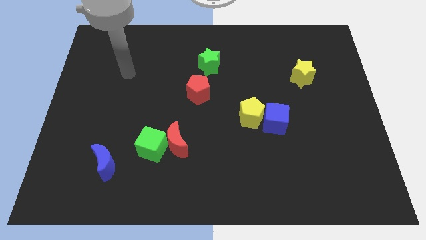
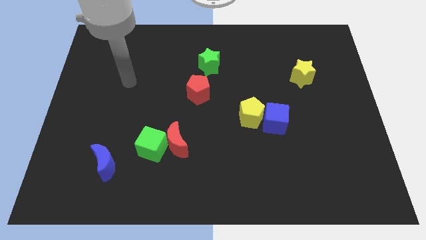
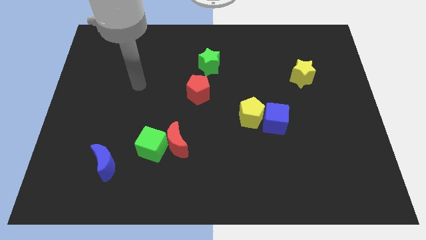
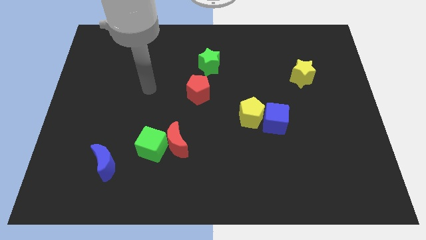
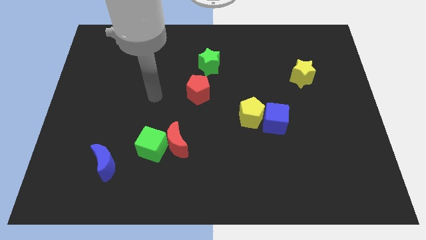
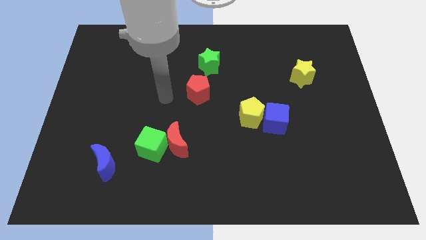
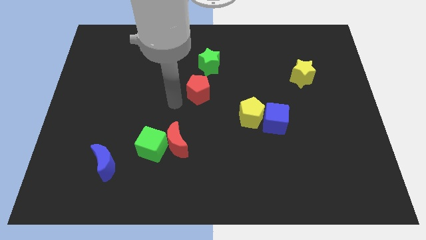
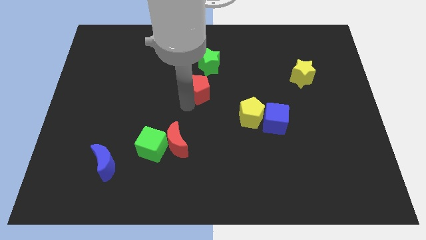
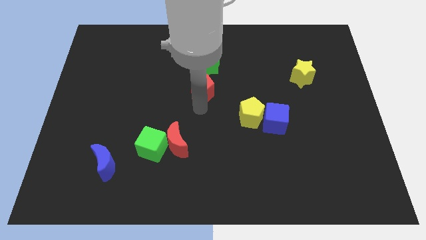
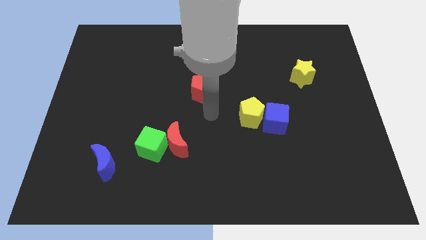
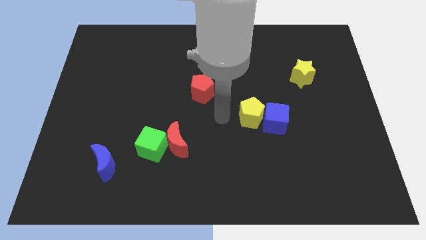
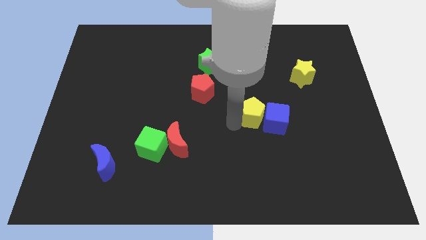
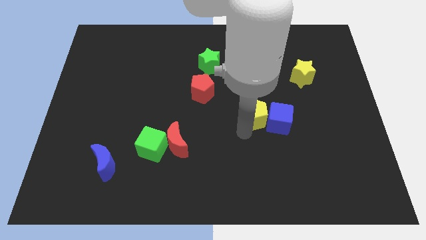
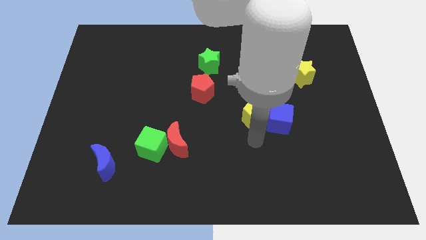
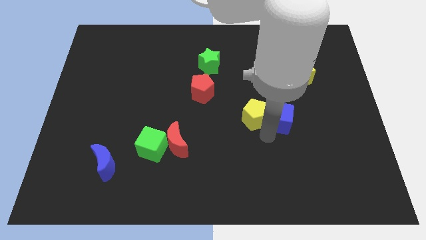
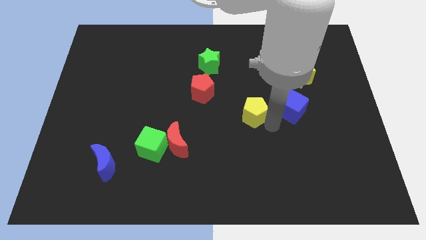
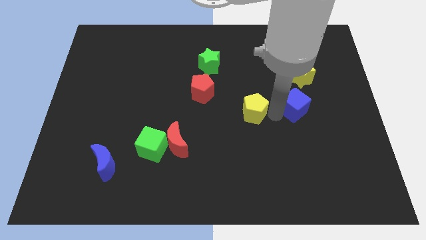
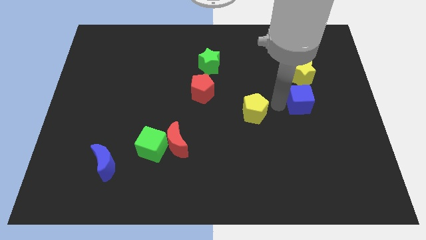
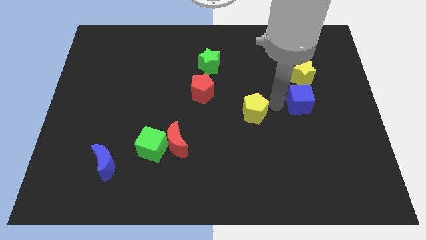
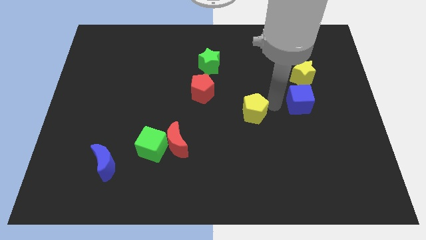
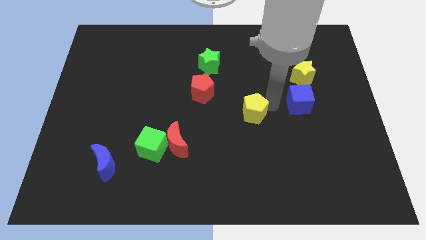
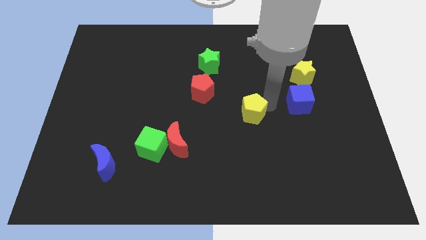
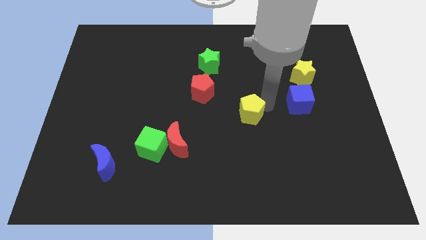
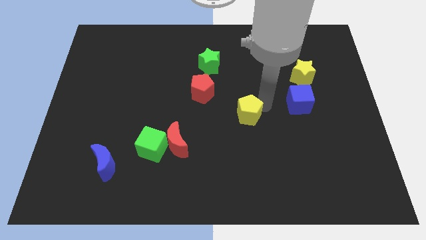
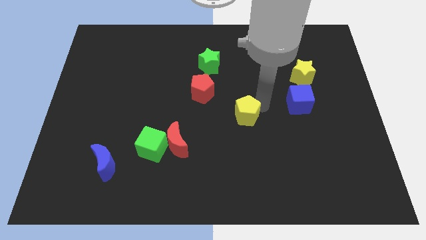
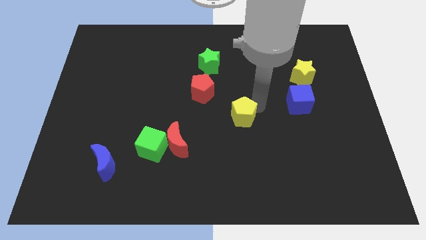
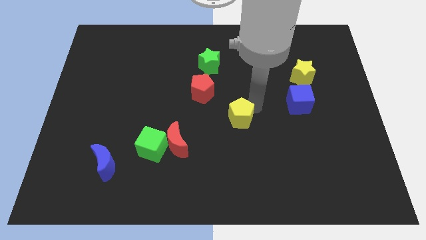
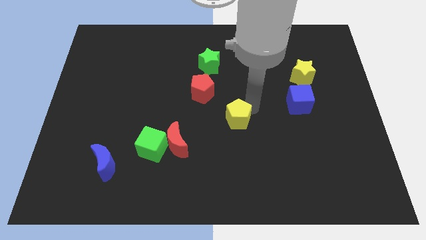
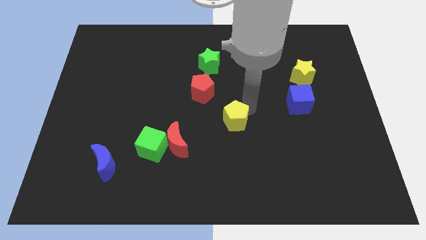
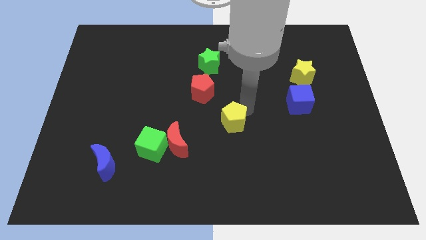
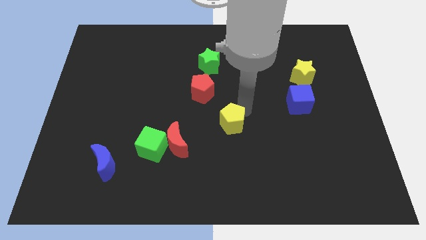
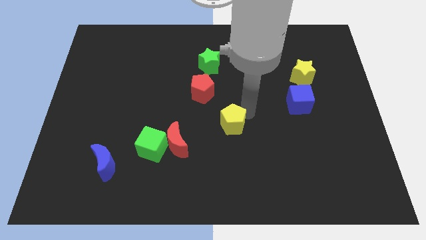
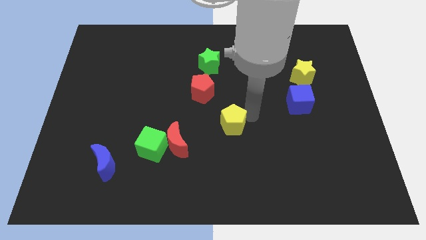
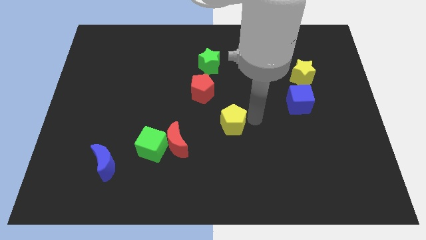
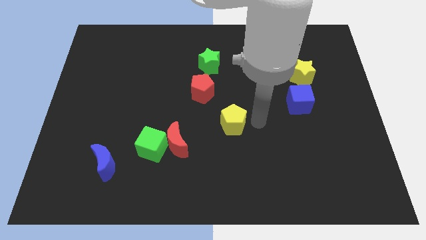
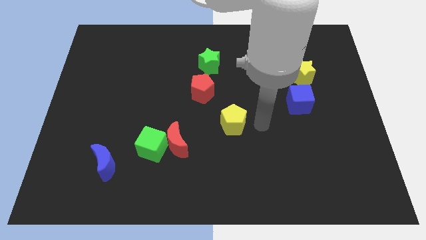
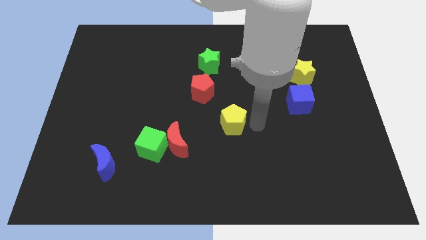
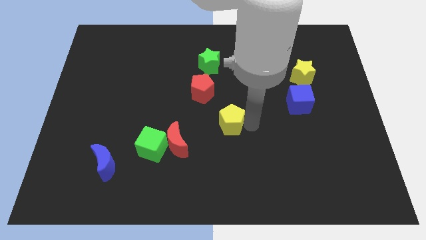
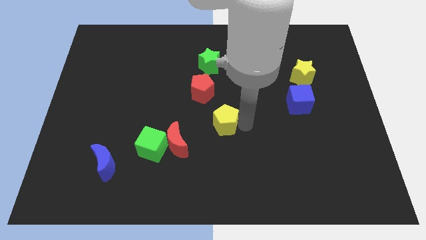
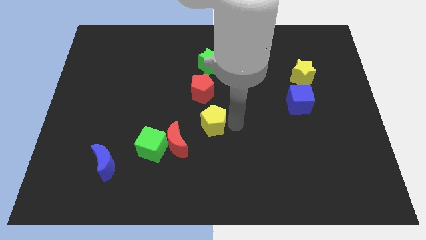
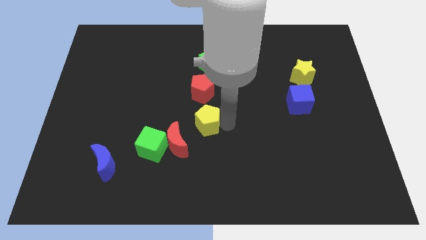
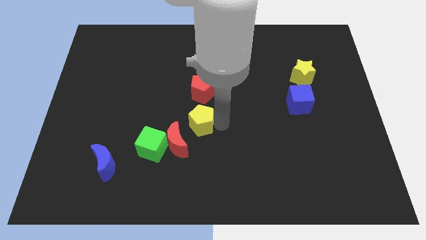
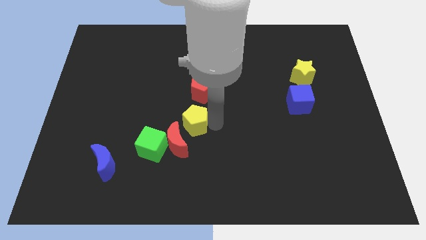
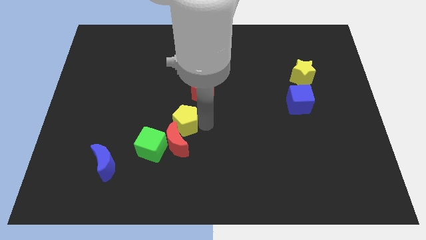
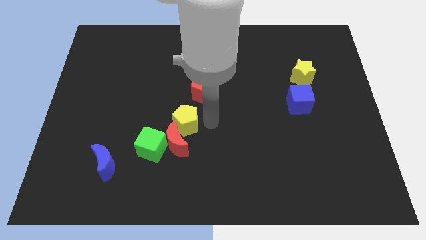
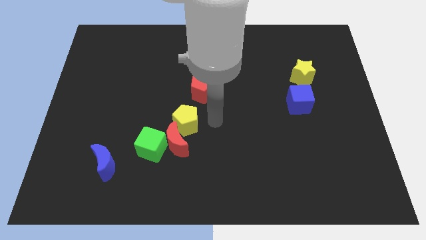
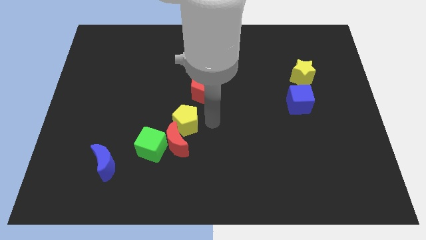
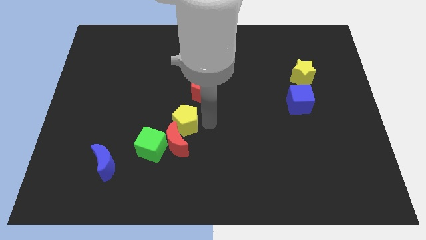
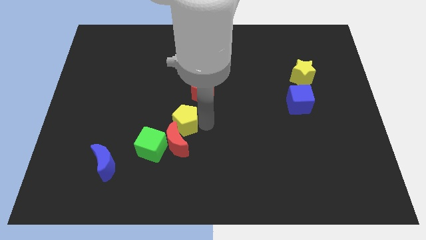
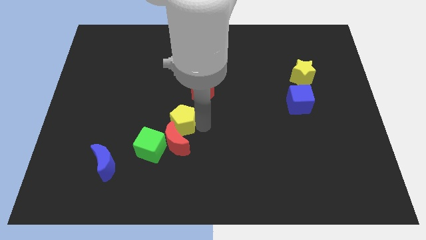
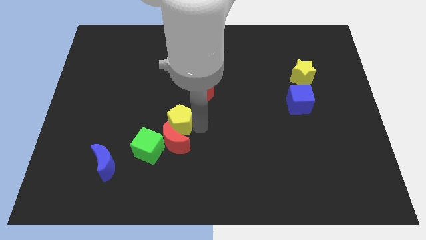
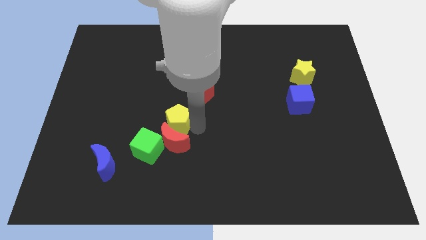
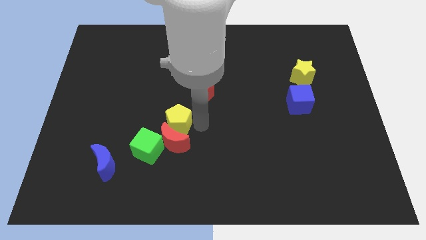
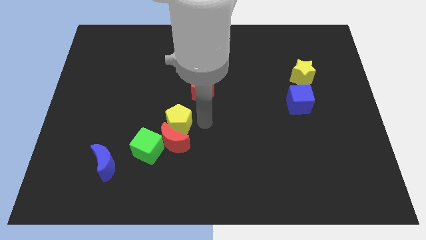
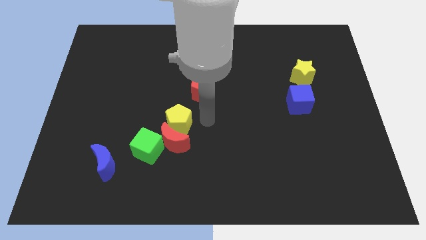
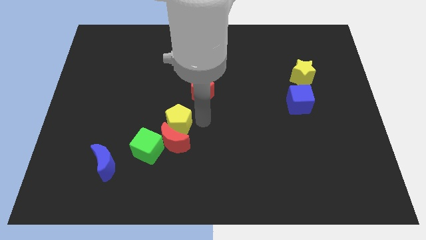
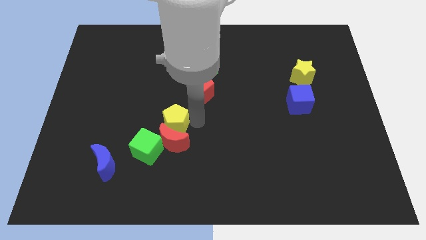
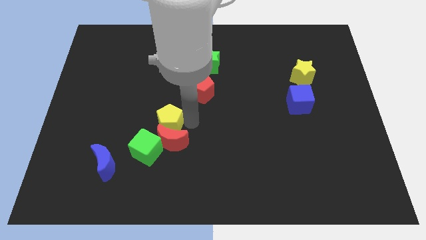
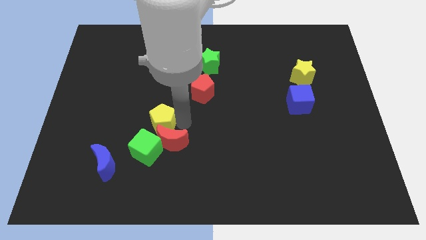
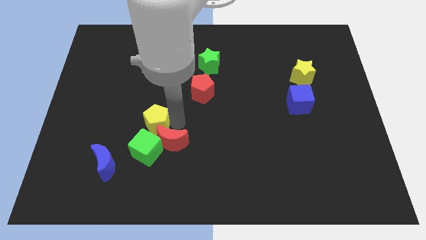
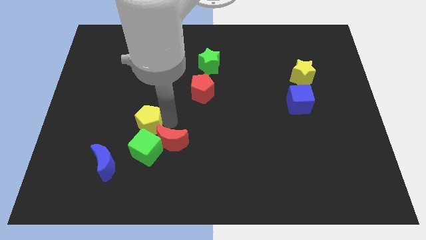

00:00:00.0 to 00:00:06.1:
move the yellow pentagon diagonally up and to the right of the blue moon

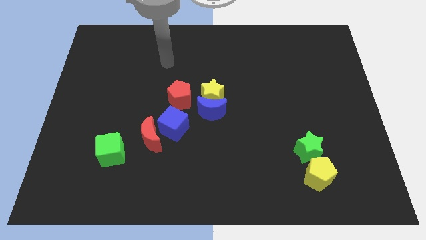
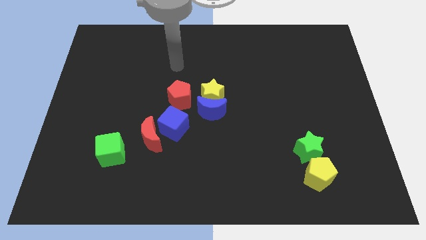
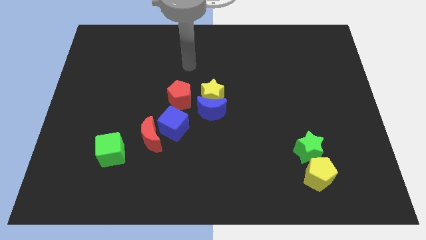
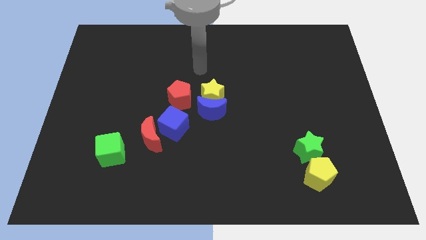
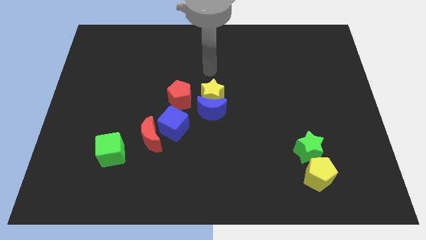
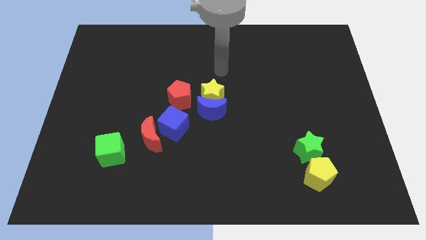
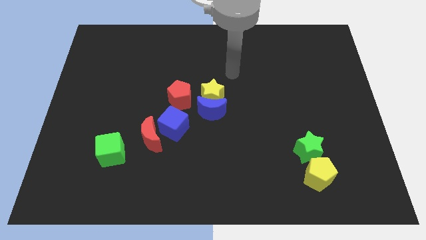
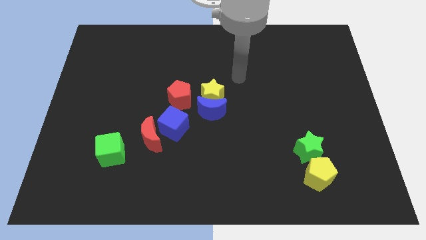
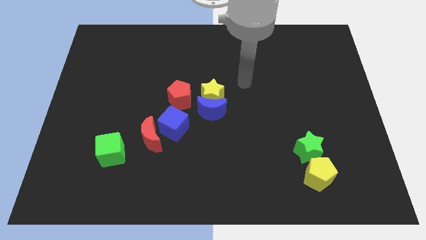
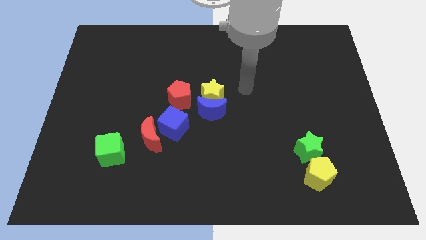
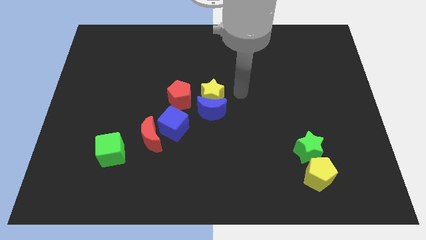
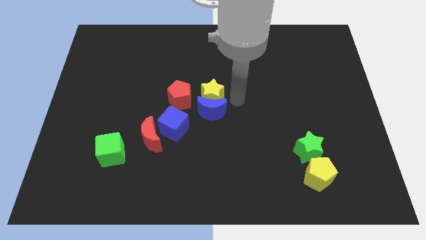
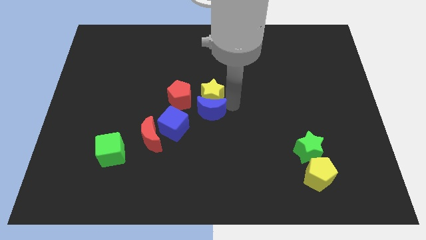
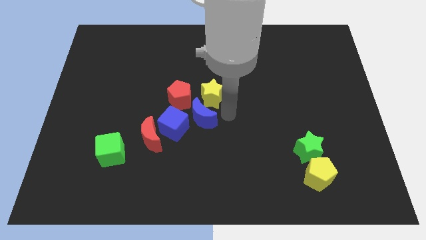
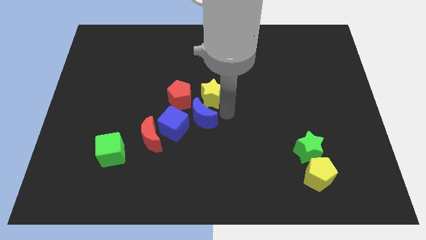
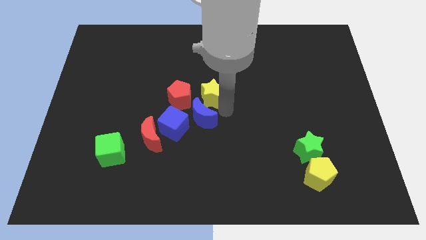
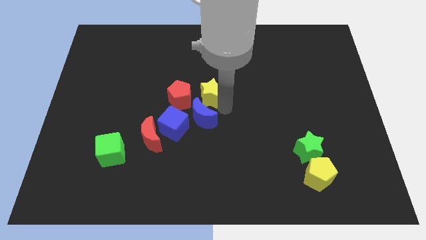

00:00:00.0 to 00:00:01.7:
push the yellow star diagonally up and to the right of the red pentagon
